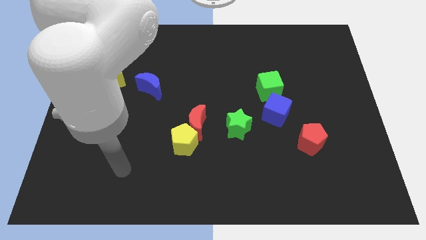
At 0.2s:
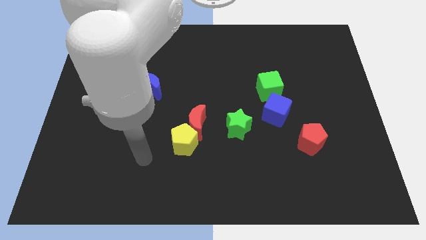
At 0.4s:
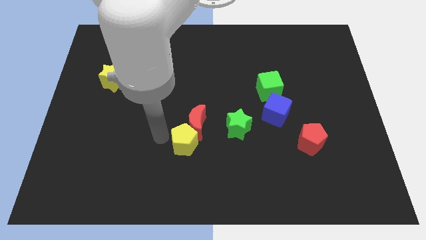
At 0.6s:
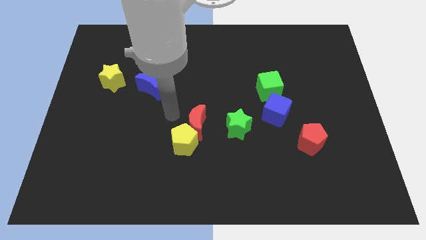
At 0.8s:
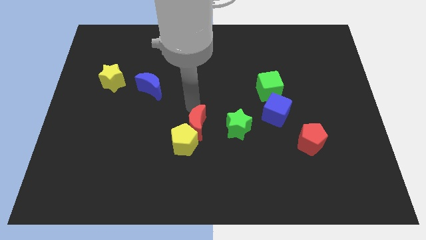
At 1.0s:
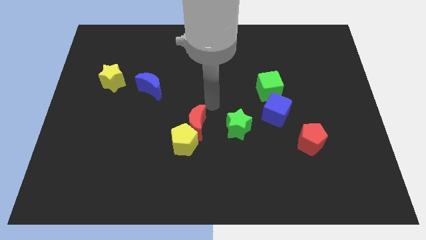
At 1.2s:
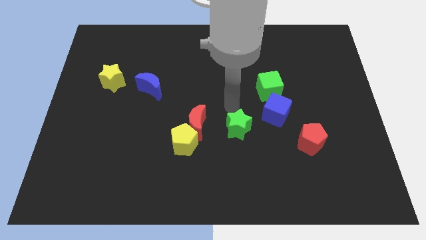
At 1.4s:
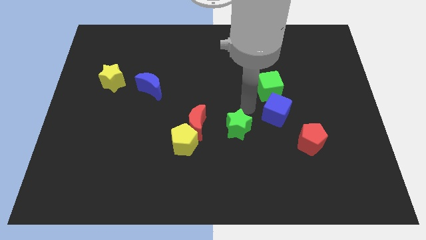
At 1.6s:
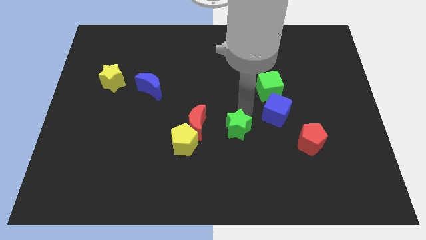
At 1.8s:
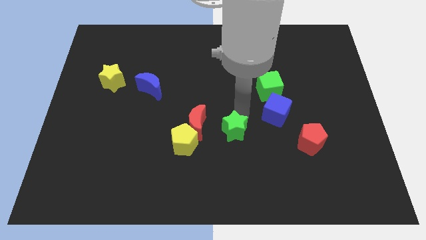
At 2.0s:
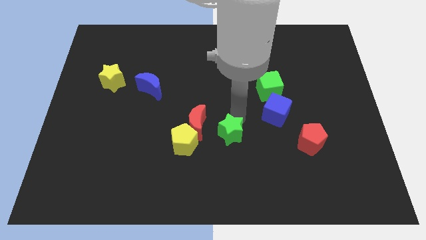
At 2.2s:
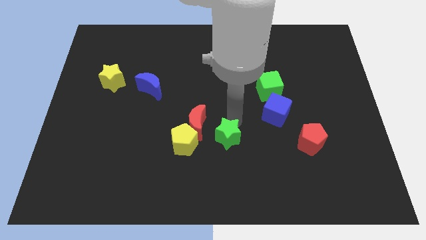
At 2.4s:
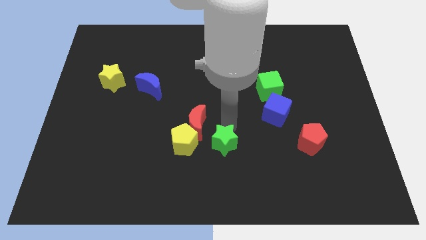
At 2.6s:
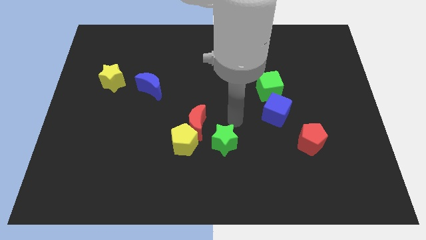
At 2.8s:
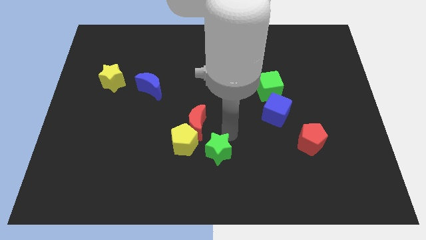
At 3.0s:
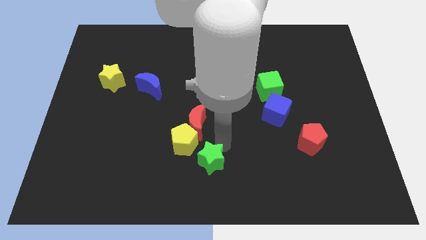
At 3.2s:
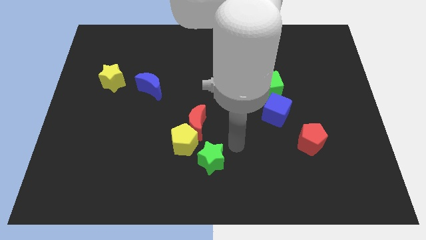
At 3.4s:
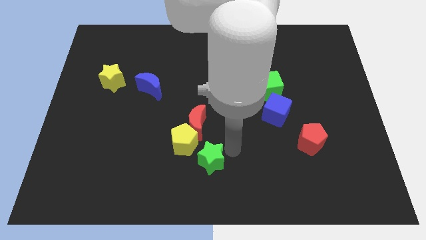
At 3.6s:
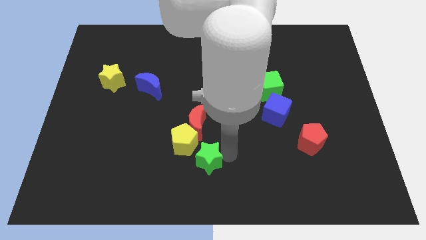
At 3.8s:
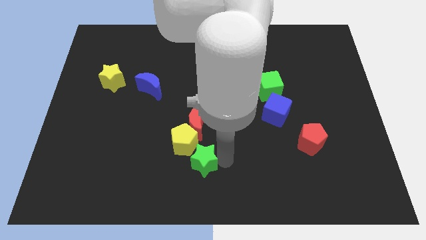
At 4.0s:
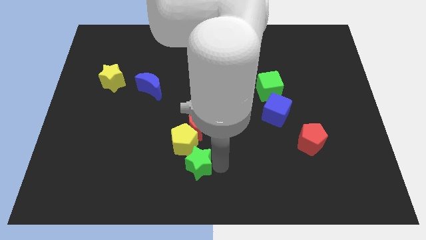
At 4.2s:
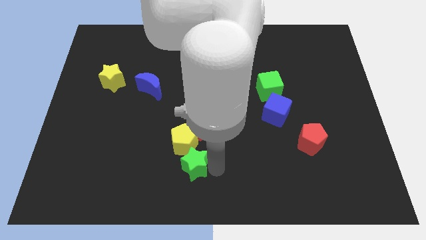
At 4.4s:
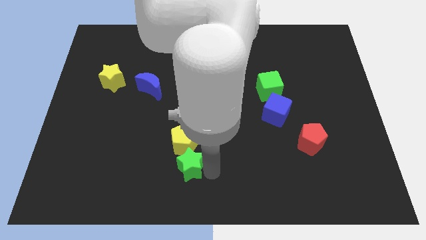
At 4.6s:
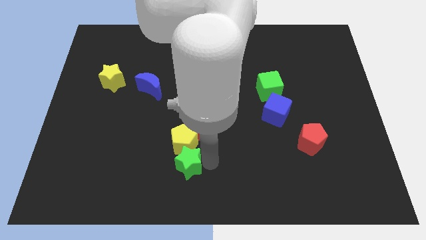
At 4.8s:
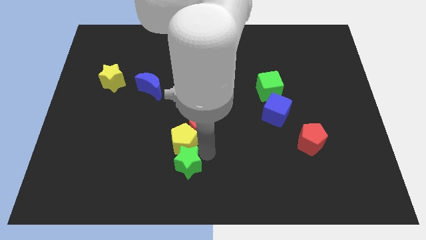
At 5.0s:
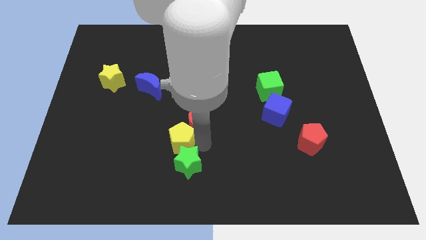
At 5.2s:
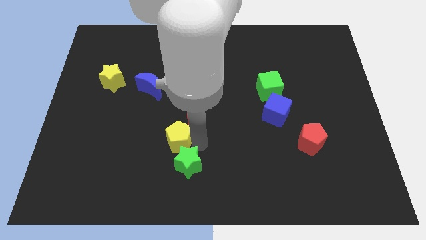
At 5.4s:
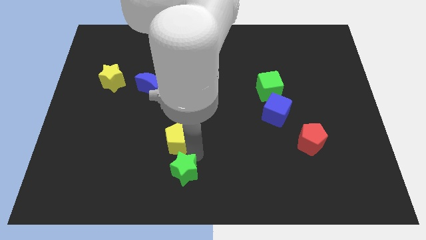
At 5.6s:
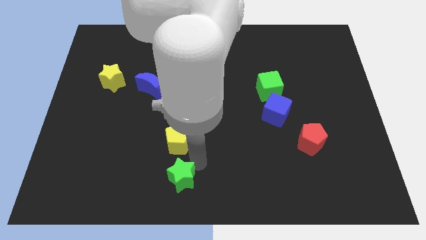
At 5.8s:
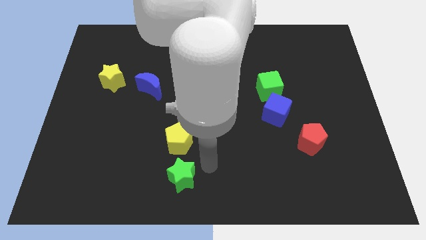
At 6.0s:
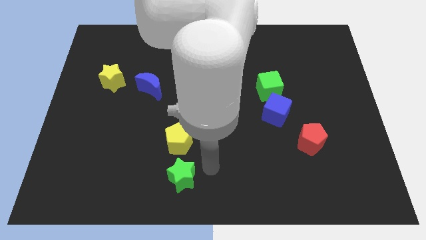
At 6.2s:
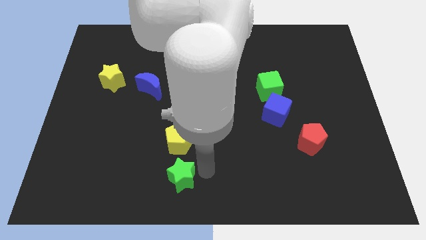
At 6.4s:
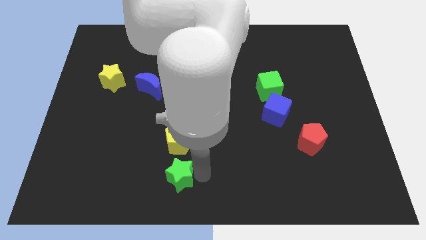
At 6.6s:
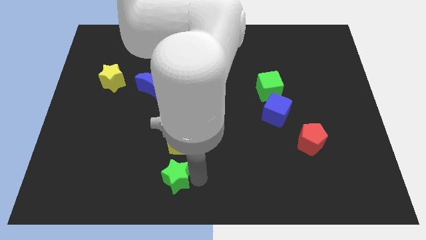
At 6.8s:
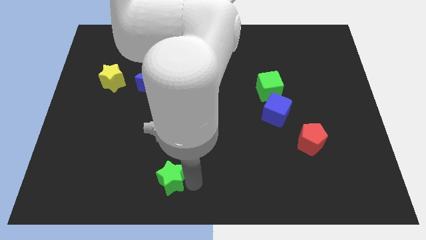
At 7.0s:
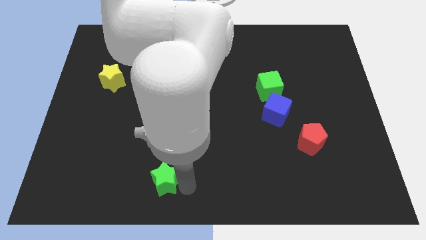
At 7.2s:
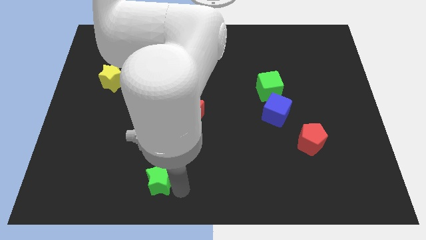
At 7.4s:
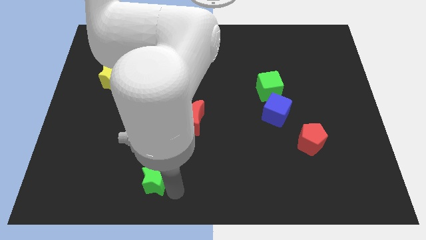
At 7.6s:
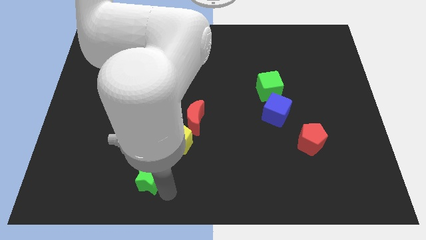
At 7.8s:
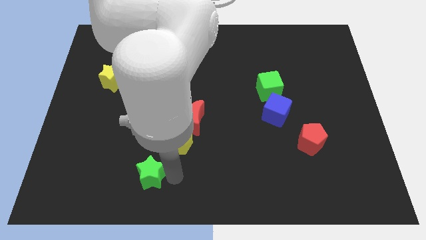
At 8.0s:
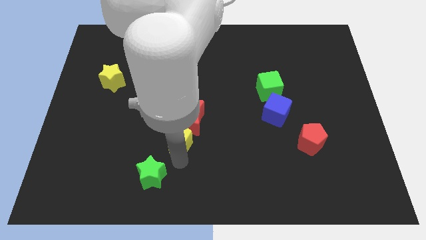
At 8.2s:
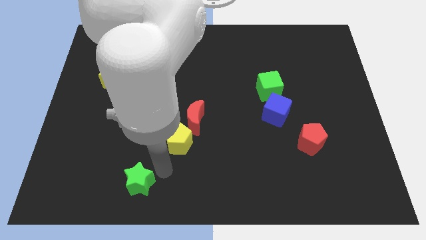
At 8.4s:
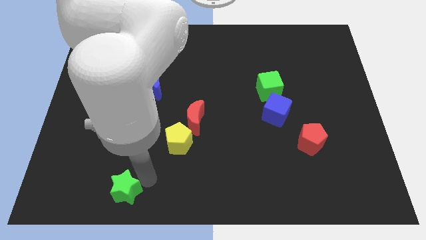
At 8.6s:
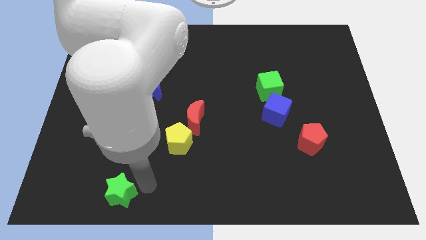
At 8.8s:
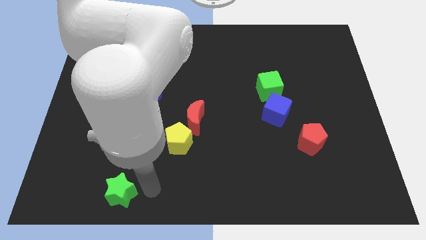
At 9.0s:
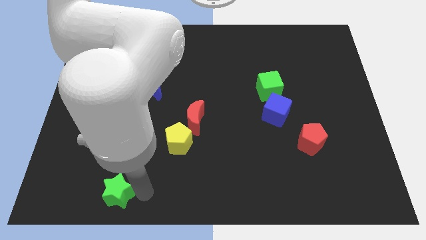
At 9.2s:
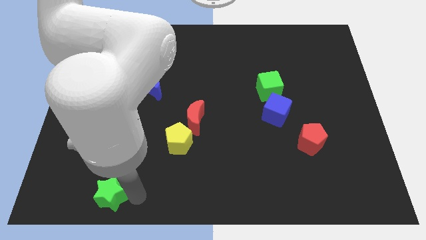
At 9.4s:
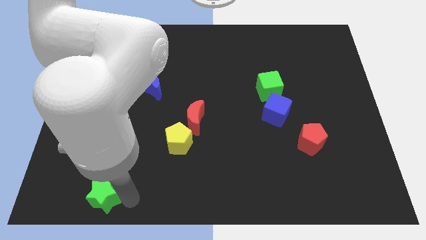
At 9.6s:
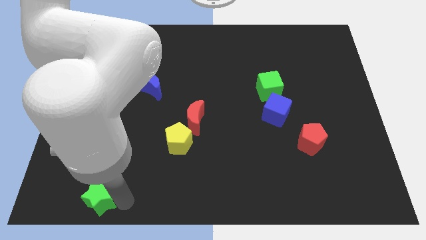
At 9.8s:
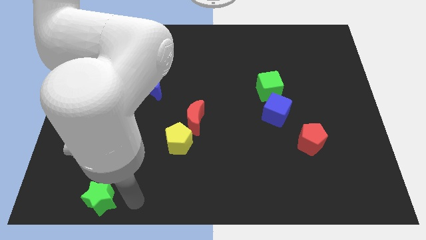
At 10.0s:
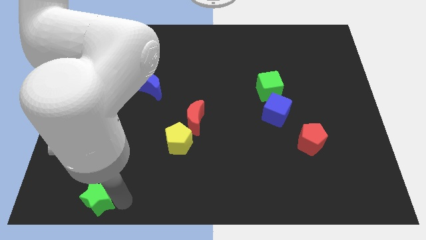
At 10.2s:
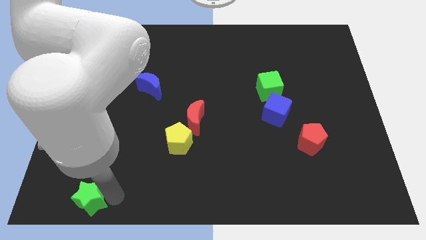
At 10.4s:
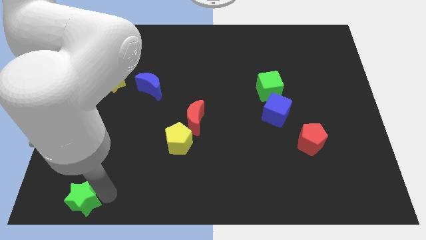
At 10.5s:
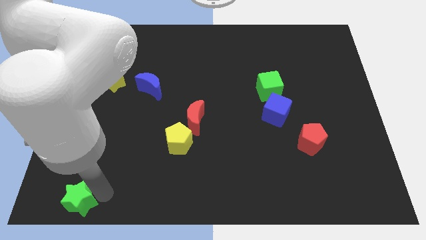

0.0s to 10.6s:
put the green star to the bottom left corner

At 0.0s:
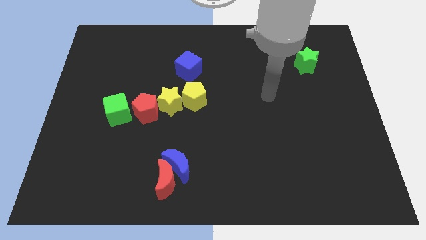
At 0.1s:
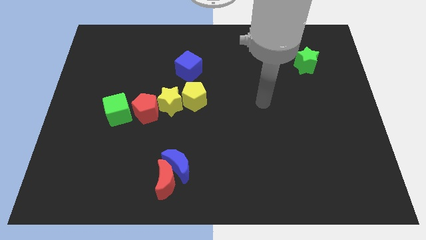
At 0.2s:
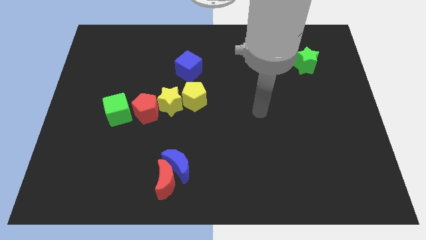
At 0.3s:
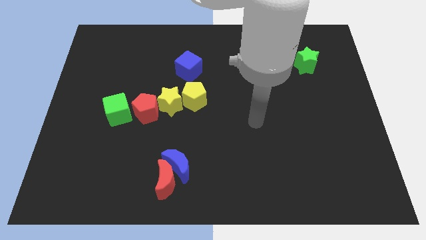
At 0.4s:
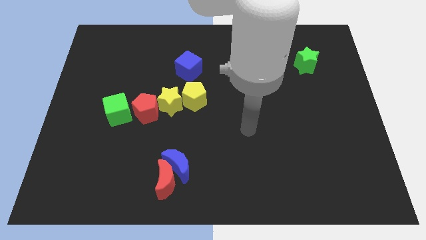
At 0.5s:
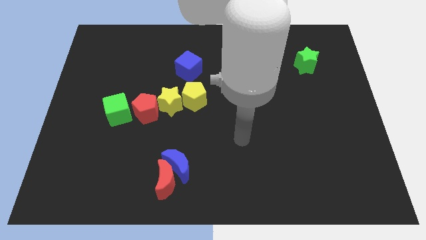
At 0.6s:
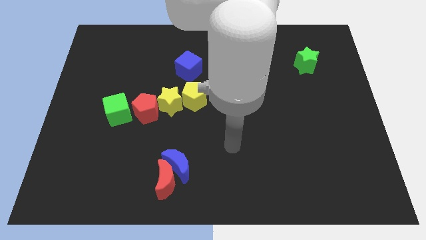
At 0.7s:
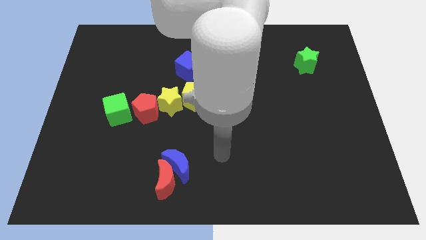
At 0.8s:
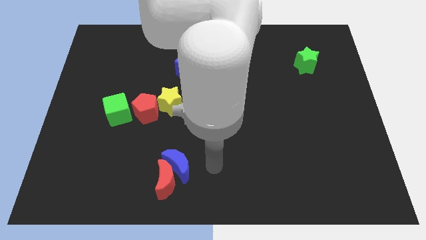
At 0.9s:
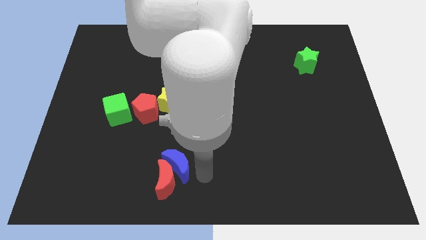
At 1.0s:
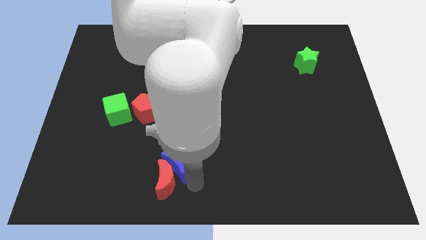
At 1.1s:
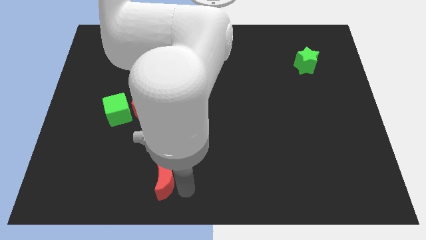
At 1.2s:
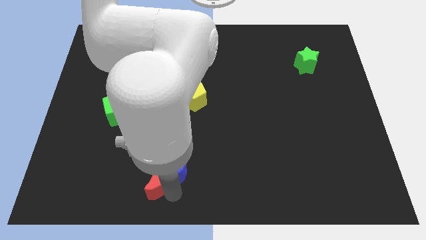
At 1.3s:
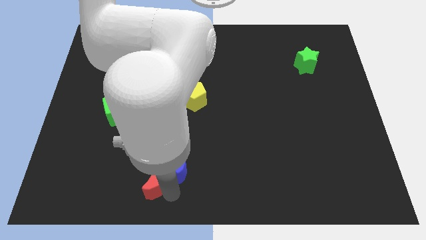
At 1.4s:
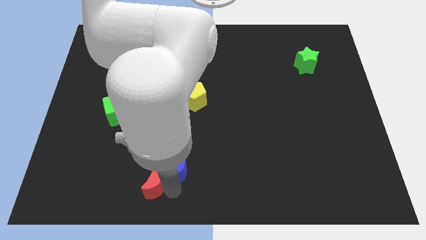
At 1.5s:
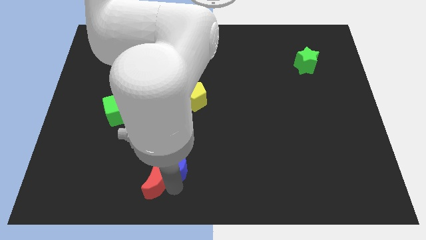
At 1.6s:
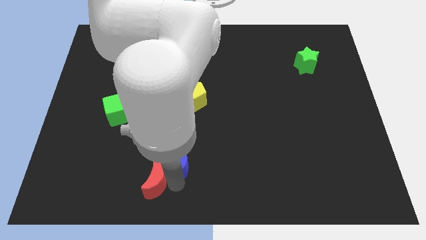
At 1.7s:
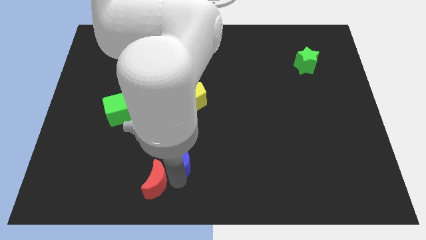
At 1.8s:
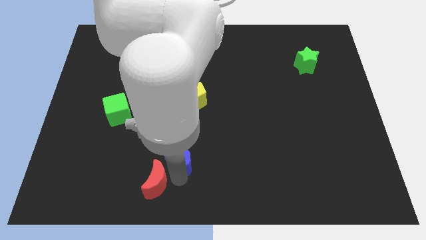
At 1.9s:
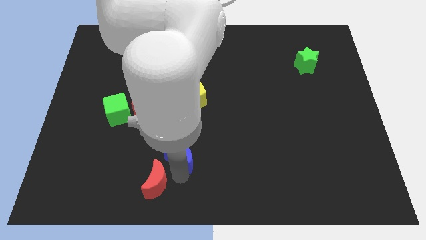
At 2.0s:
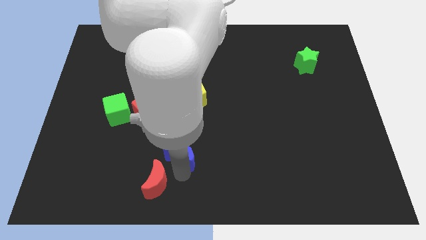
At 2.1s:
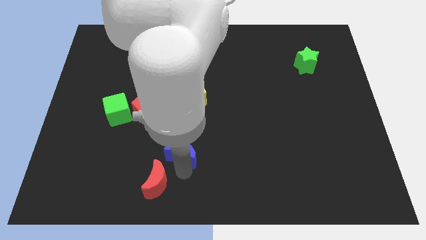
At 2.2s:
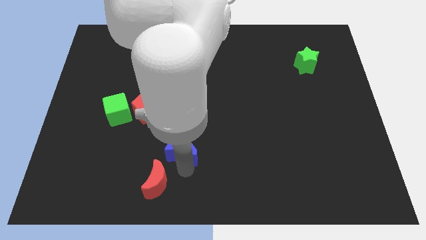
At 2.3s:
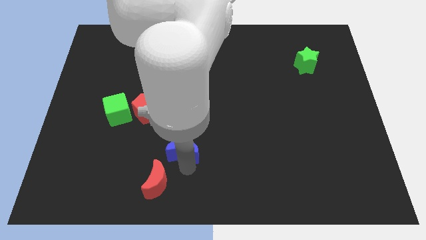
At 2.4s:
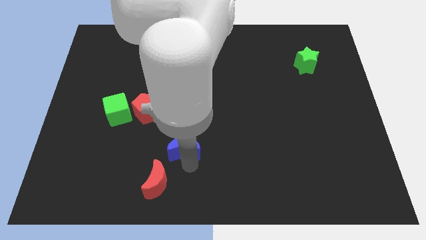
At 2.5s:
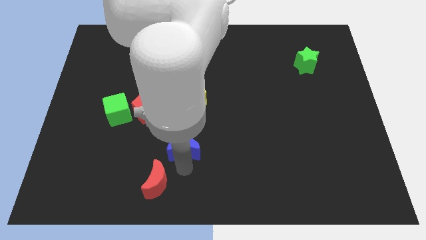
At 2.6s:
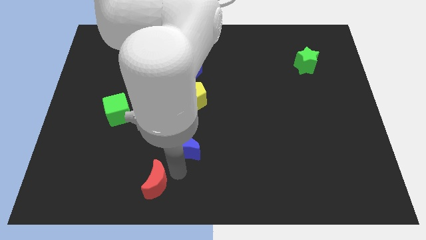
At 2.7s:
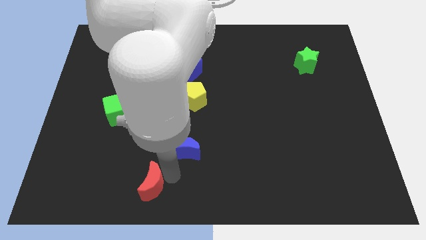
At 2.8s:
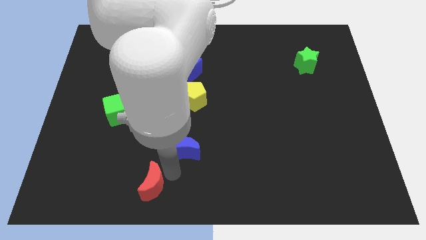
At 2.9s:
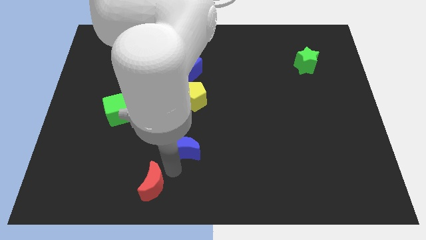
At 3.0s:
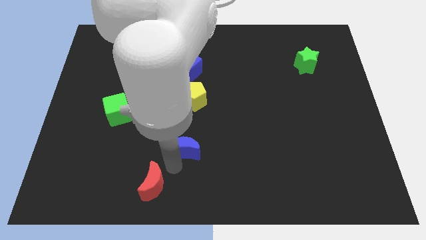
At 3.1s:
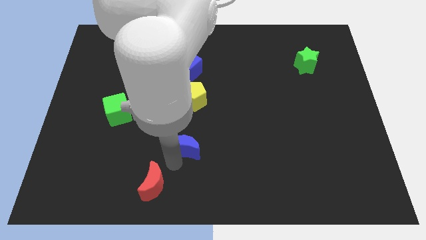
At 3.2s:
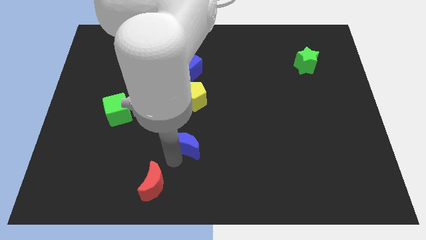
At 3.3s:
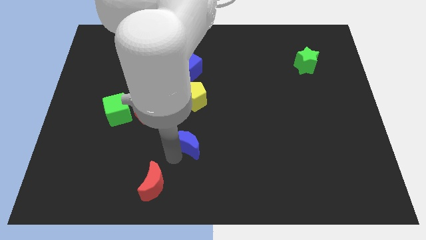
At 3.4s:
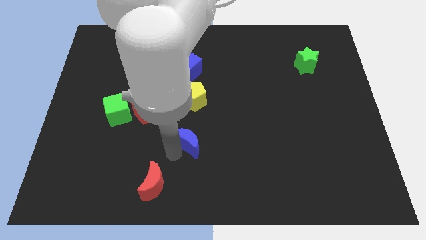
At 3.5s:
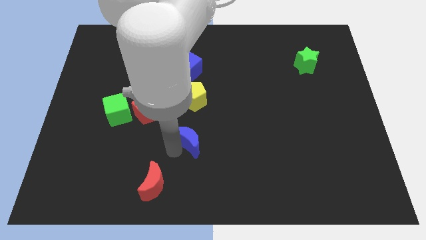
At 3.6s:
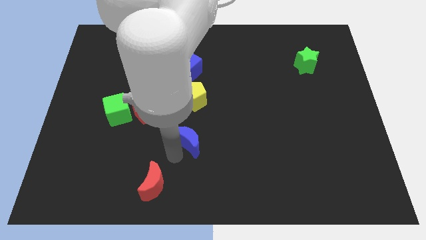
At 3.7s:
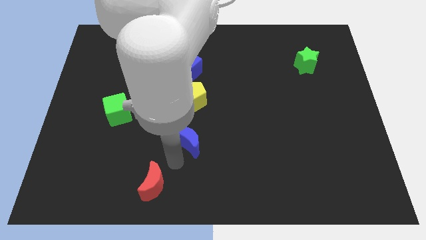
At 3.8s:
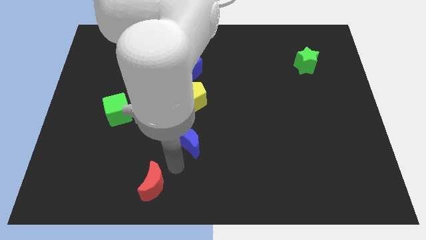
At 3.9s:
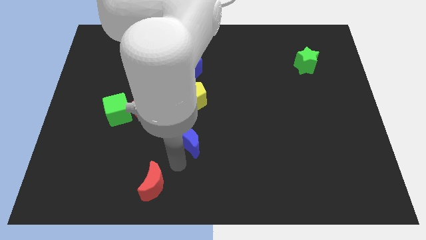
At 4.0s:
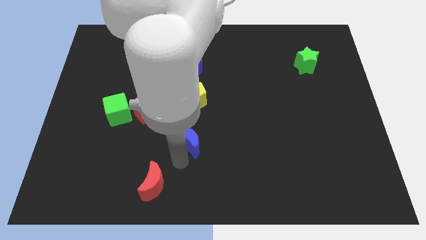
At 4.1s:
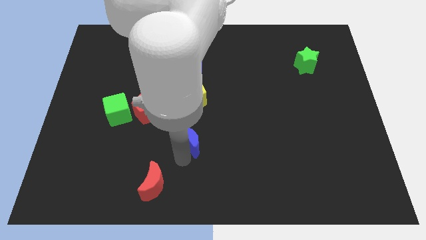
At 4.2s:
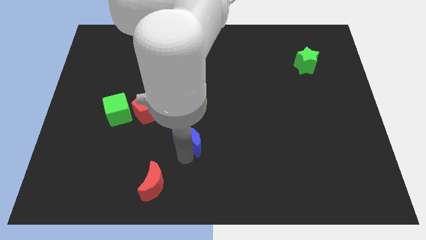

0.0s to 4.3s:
slide the blue moon to the center
